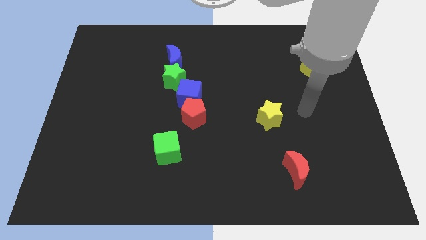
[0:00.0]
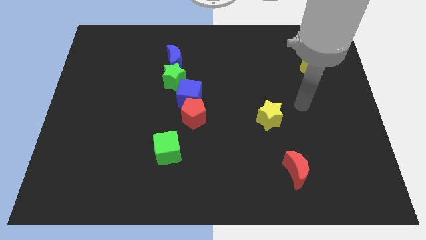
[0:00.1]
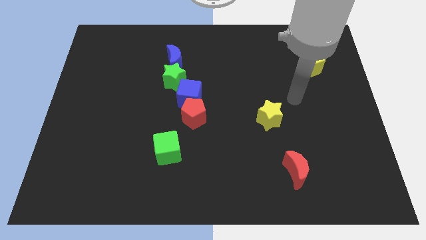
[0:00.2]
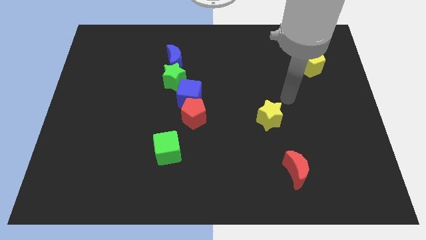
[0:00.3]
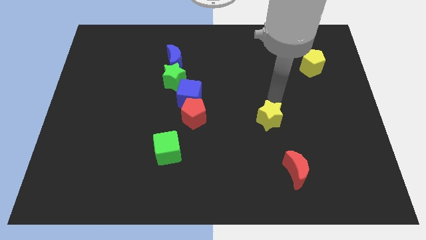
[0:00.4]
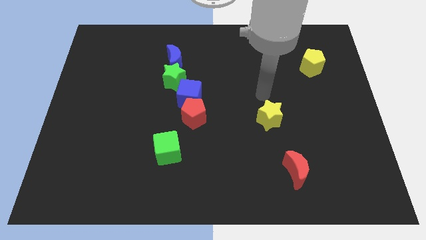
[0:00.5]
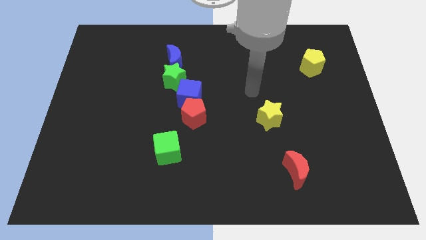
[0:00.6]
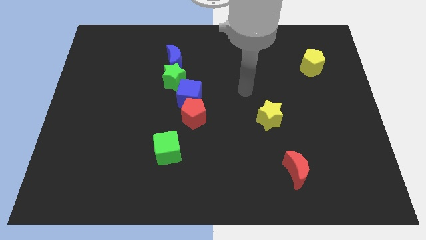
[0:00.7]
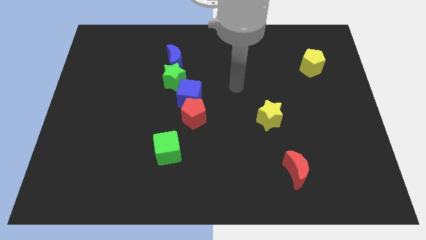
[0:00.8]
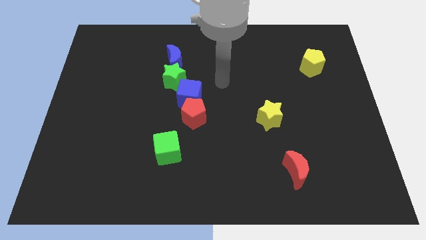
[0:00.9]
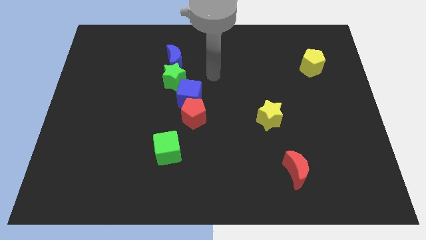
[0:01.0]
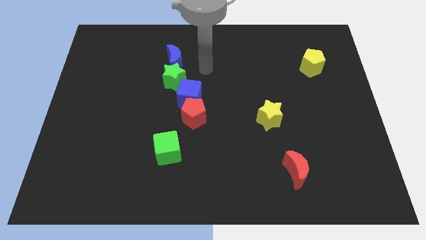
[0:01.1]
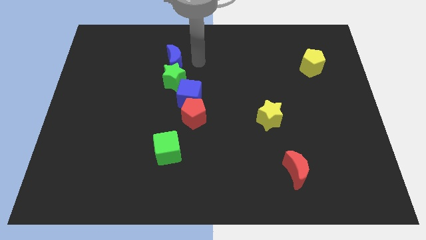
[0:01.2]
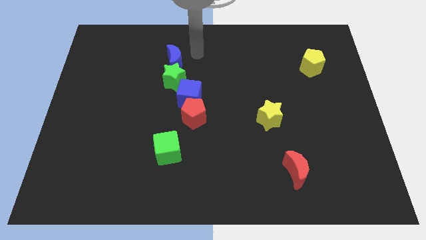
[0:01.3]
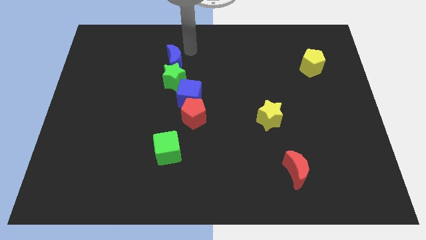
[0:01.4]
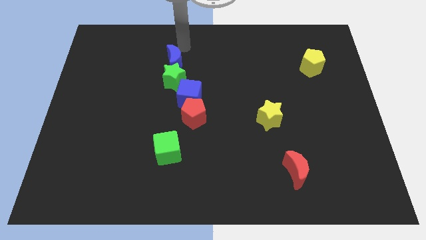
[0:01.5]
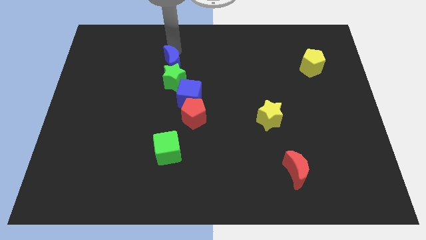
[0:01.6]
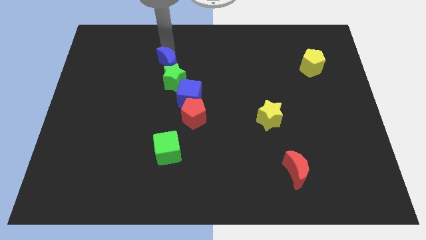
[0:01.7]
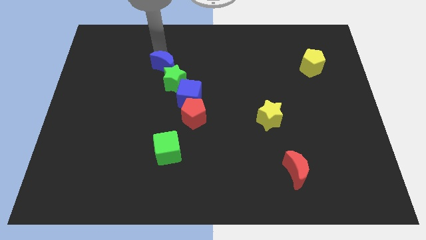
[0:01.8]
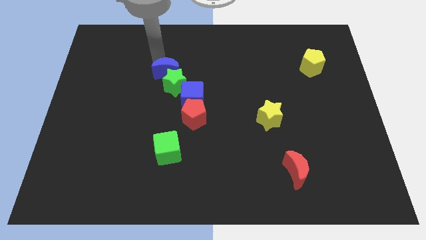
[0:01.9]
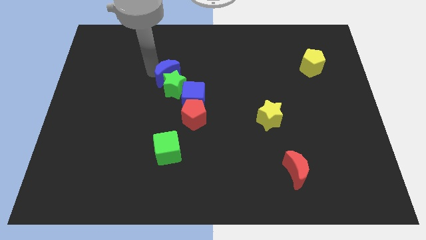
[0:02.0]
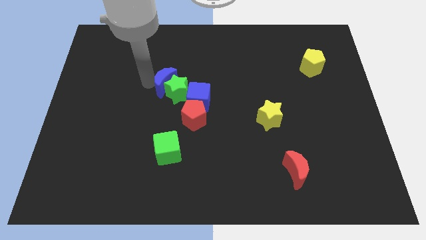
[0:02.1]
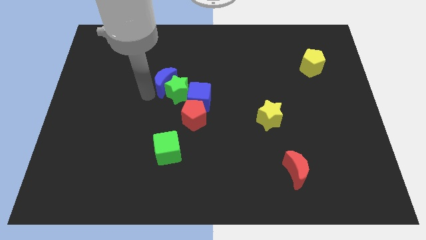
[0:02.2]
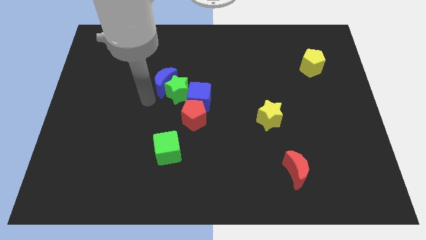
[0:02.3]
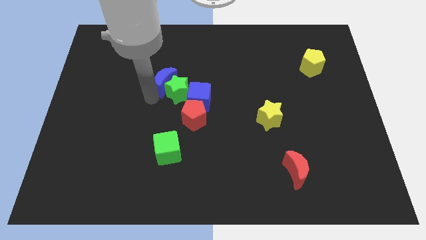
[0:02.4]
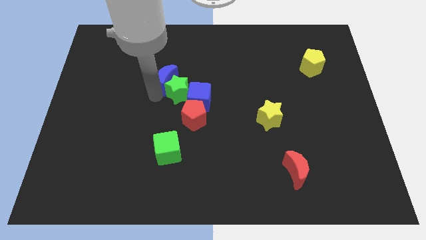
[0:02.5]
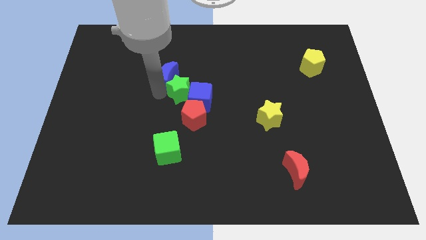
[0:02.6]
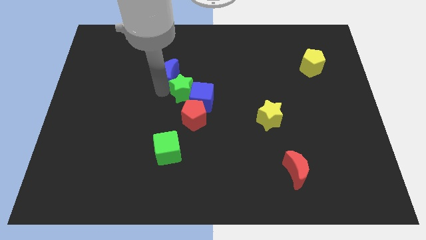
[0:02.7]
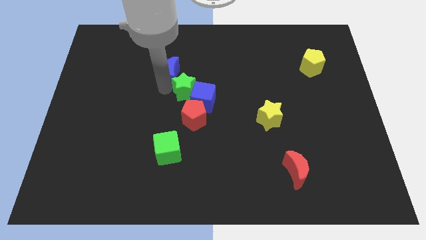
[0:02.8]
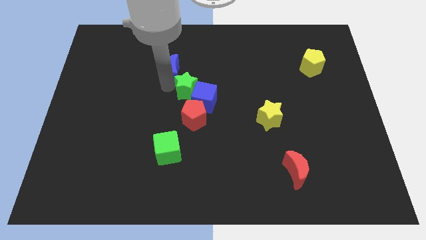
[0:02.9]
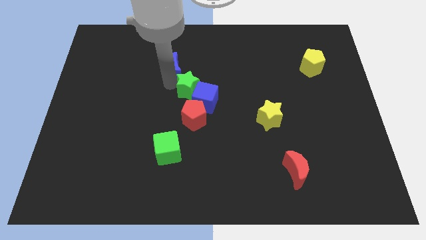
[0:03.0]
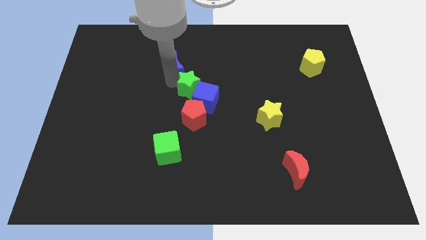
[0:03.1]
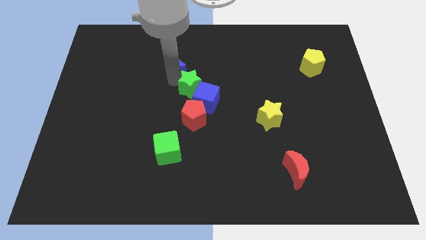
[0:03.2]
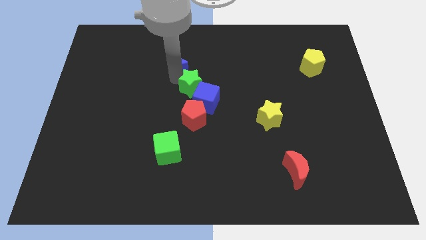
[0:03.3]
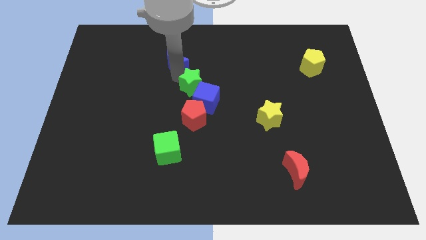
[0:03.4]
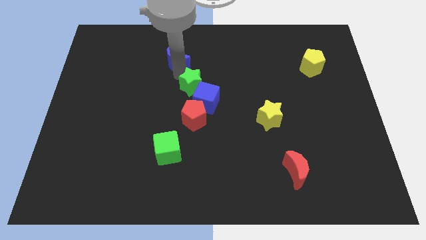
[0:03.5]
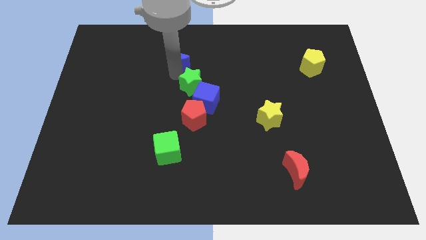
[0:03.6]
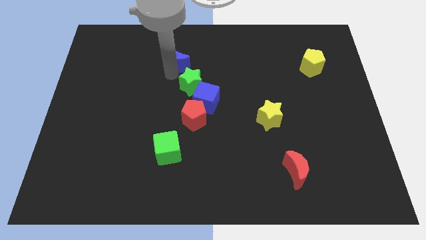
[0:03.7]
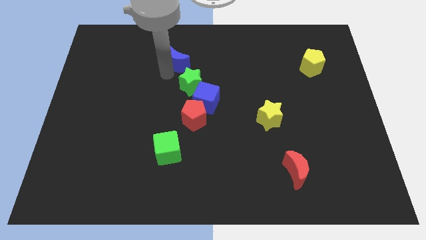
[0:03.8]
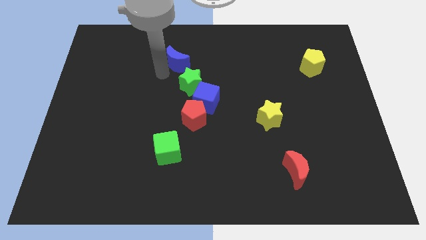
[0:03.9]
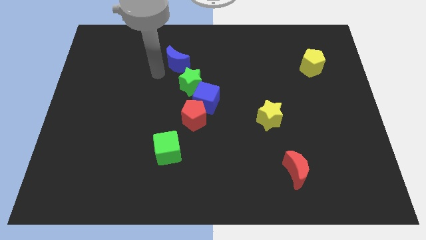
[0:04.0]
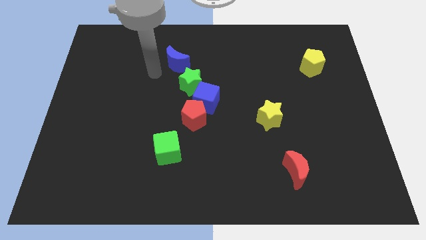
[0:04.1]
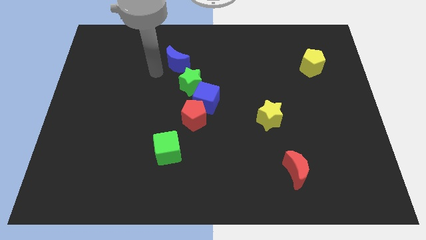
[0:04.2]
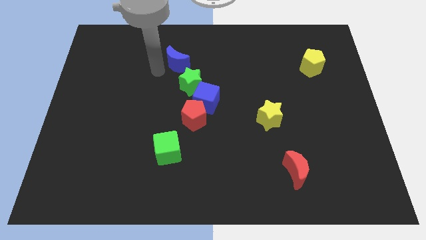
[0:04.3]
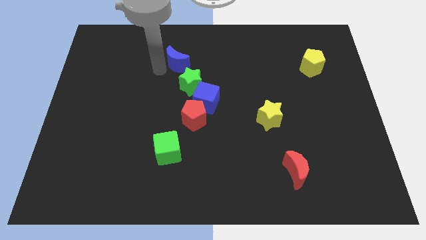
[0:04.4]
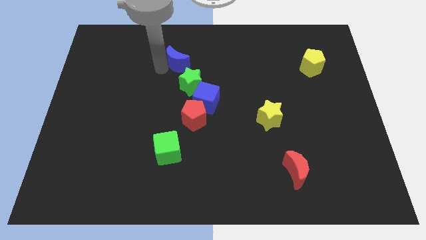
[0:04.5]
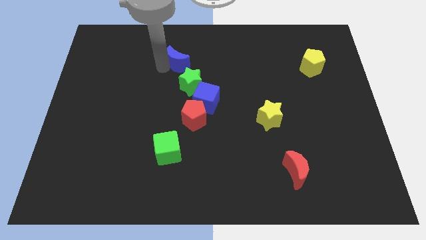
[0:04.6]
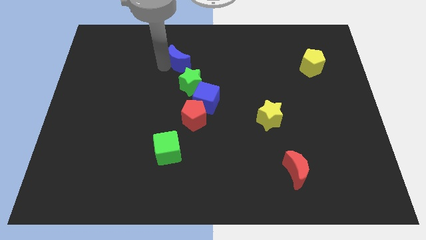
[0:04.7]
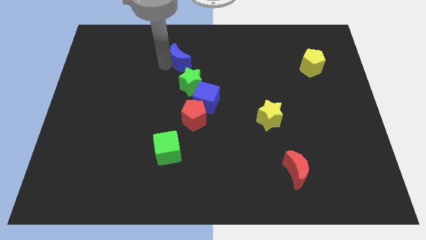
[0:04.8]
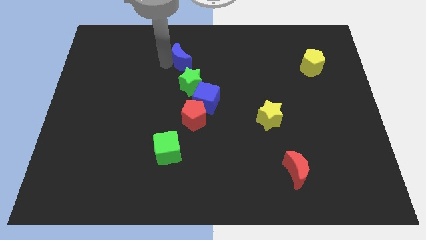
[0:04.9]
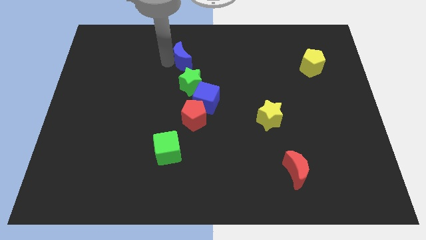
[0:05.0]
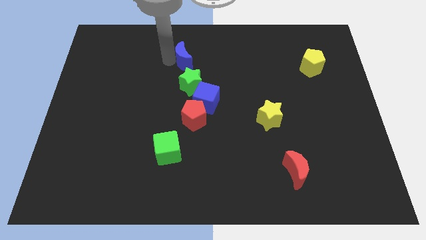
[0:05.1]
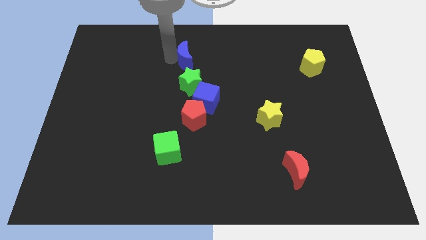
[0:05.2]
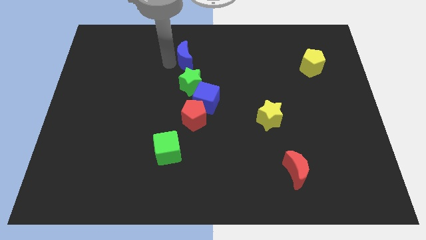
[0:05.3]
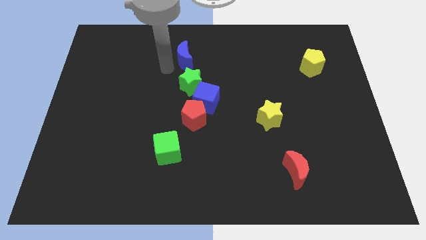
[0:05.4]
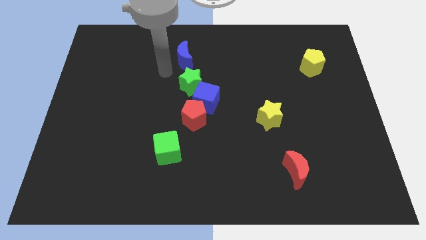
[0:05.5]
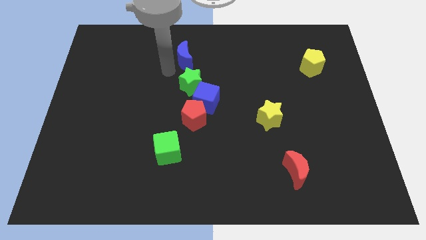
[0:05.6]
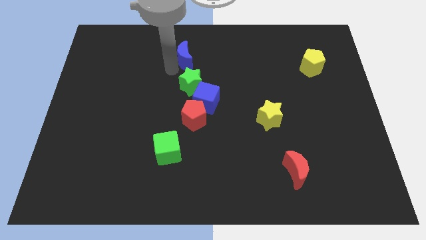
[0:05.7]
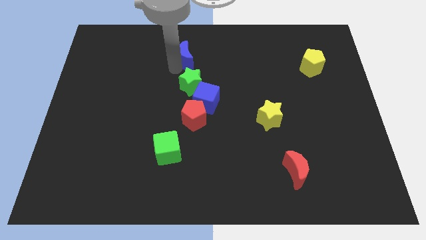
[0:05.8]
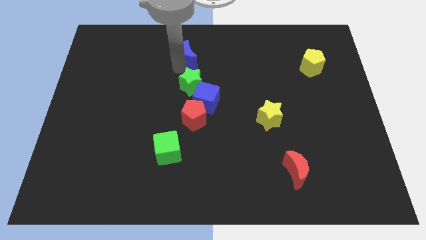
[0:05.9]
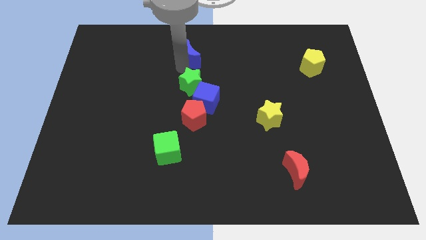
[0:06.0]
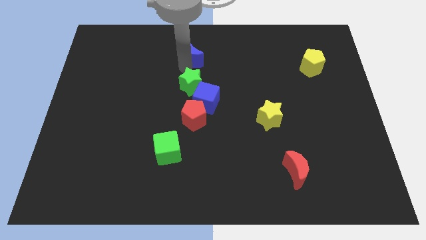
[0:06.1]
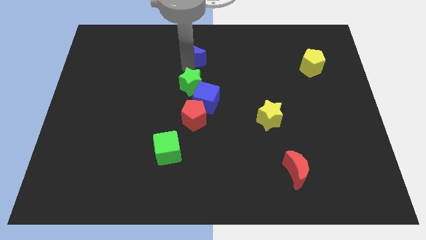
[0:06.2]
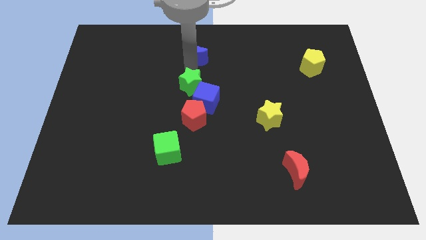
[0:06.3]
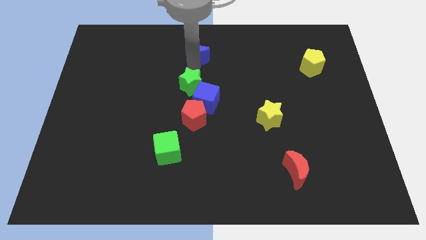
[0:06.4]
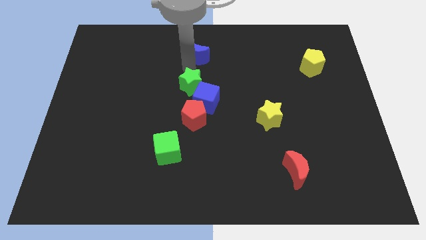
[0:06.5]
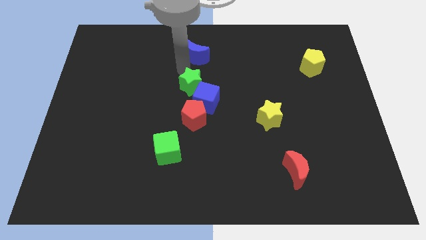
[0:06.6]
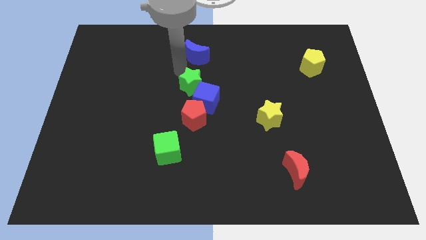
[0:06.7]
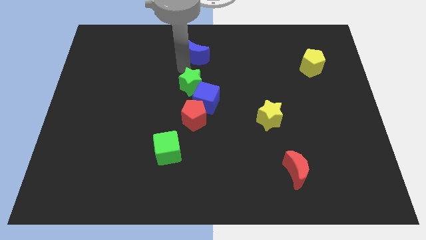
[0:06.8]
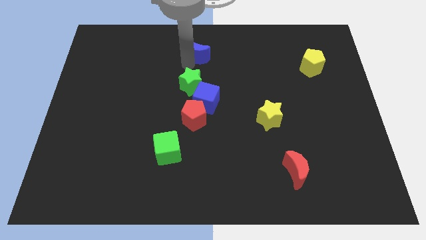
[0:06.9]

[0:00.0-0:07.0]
put the blue moon to the towards your base

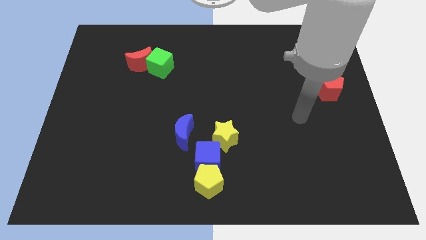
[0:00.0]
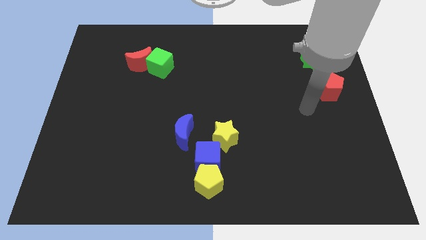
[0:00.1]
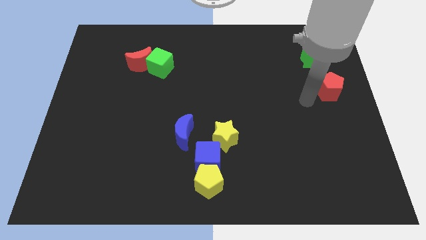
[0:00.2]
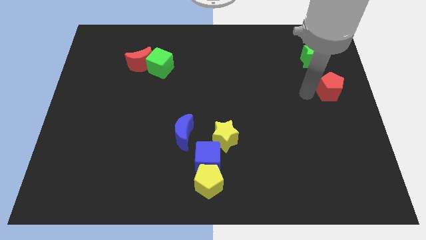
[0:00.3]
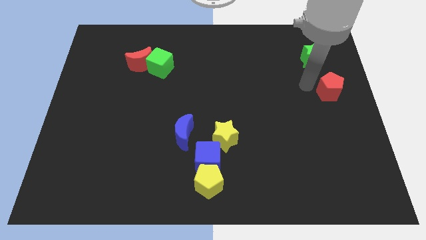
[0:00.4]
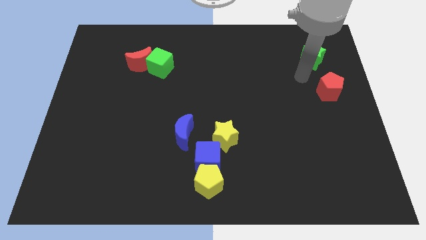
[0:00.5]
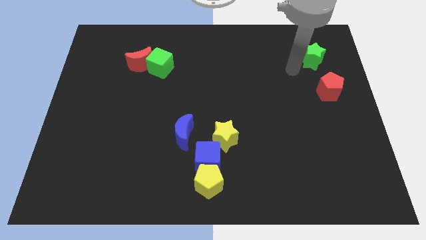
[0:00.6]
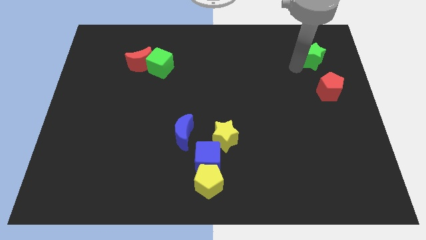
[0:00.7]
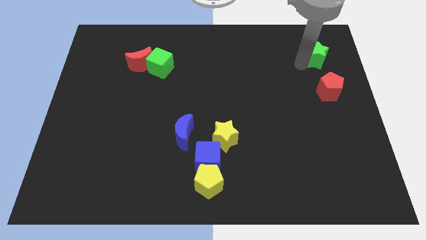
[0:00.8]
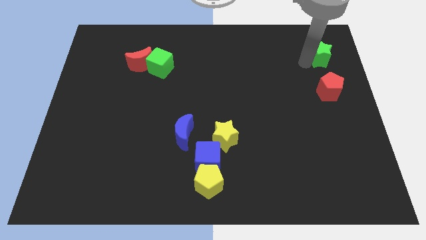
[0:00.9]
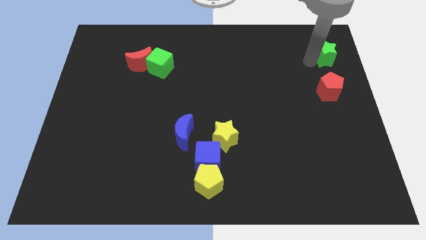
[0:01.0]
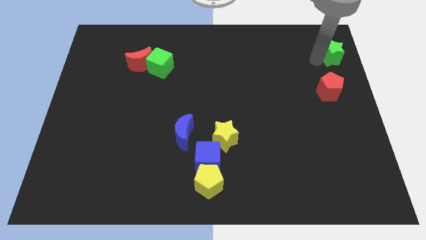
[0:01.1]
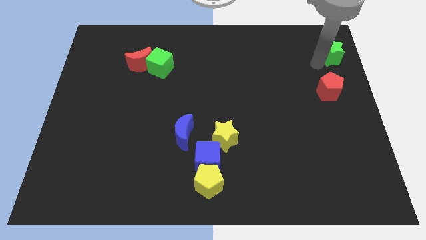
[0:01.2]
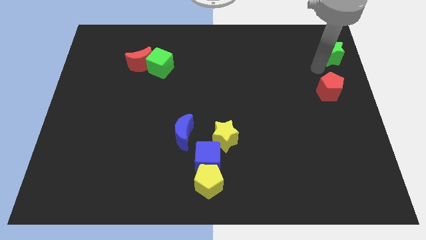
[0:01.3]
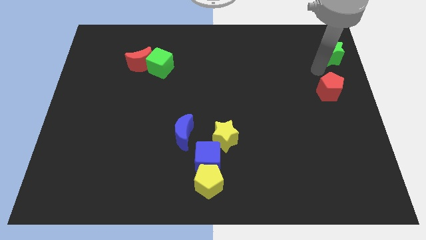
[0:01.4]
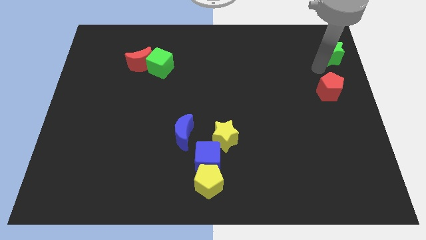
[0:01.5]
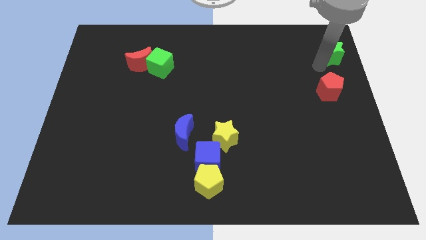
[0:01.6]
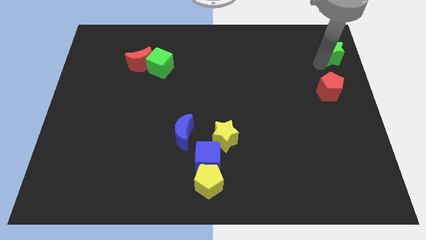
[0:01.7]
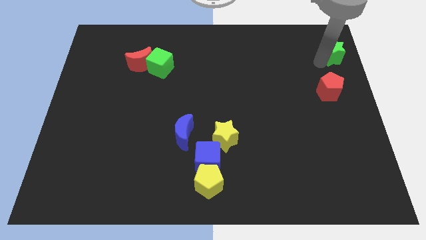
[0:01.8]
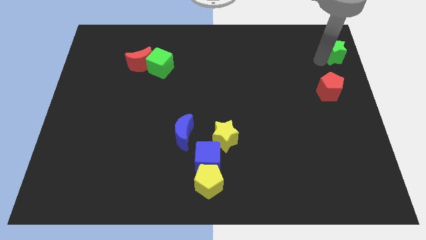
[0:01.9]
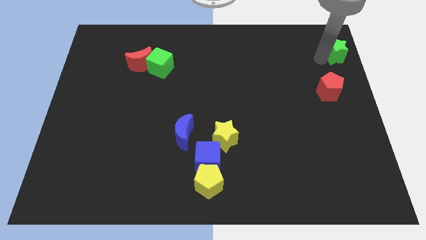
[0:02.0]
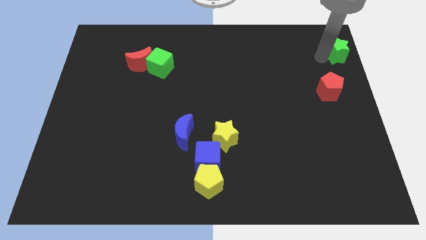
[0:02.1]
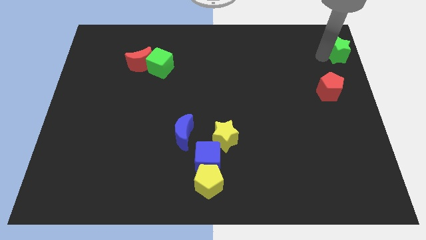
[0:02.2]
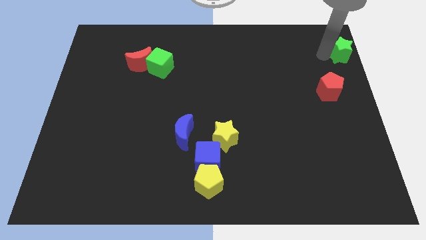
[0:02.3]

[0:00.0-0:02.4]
move the green star to the top right corner
